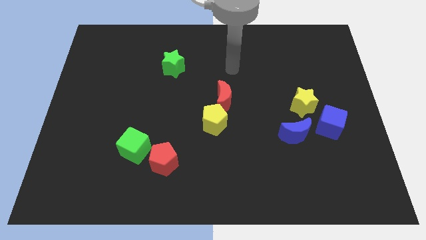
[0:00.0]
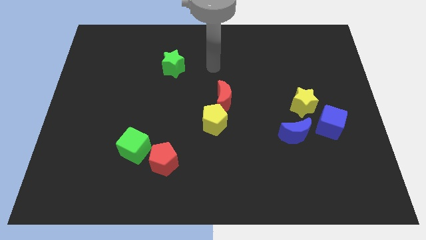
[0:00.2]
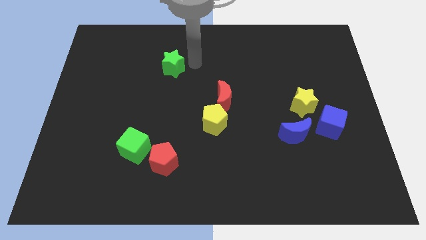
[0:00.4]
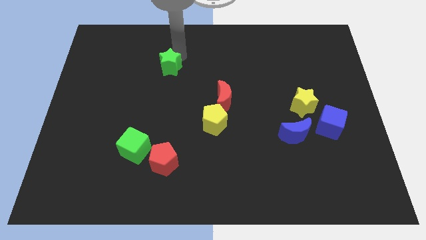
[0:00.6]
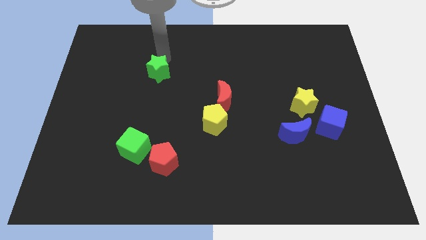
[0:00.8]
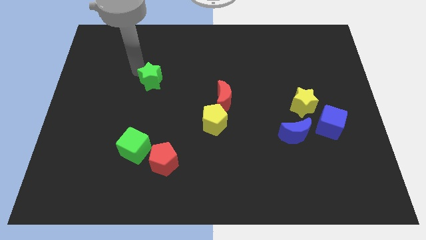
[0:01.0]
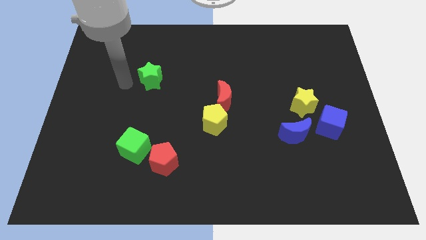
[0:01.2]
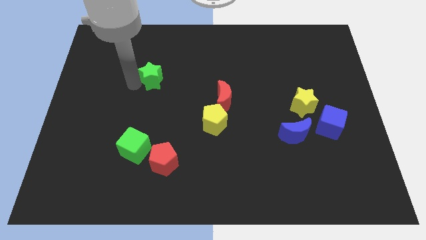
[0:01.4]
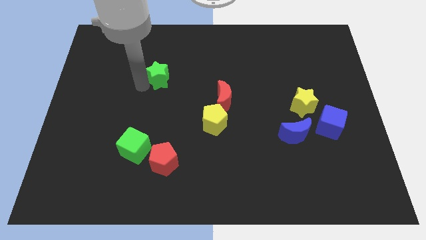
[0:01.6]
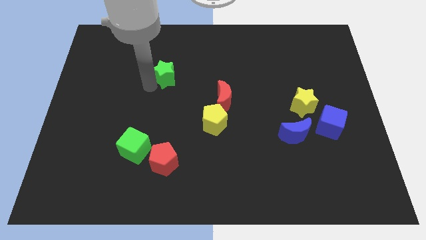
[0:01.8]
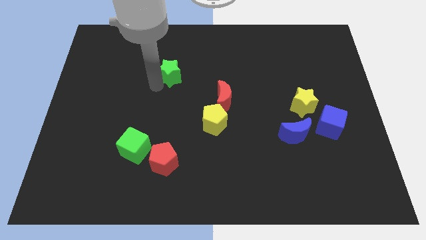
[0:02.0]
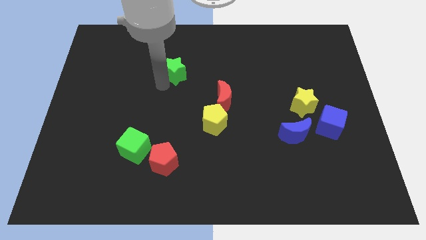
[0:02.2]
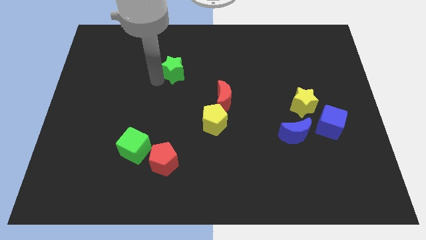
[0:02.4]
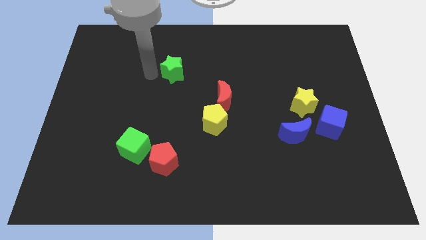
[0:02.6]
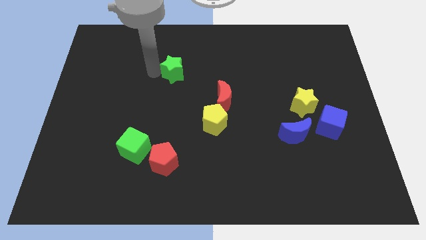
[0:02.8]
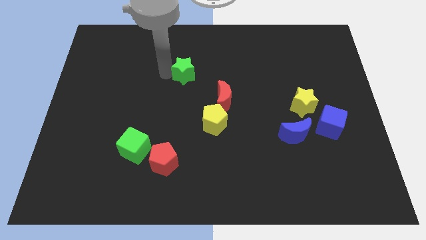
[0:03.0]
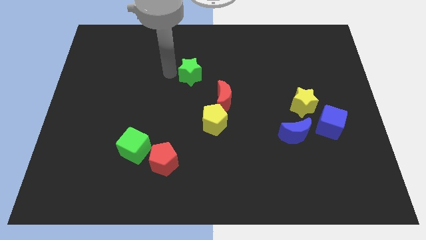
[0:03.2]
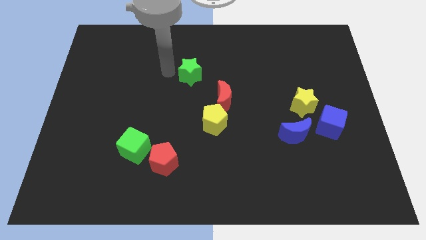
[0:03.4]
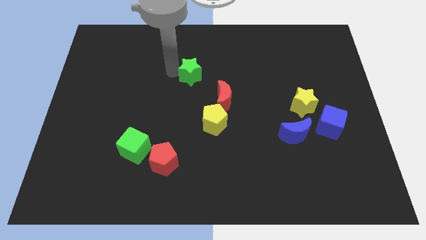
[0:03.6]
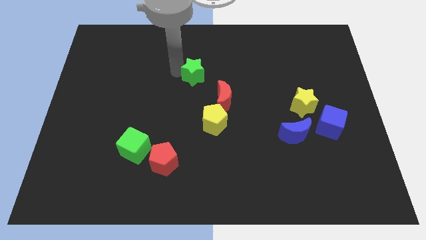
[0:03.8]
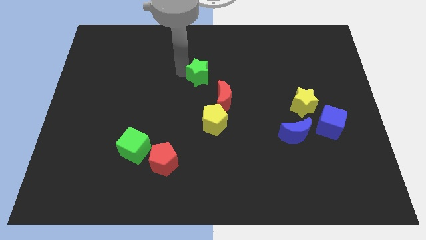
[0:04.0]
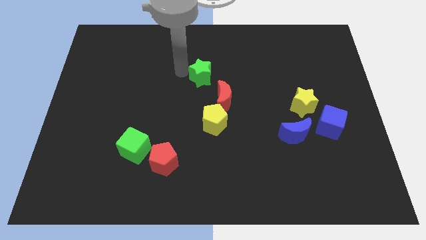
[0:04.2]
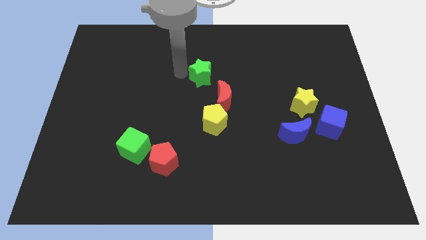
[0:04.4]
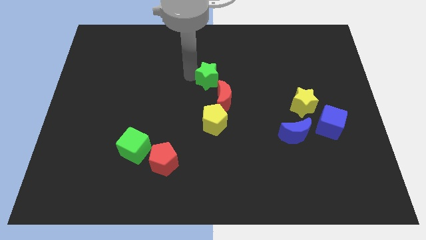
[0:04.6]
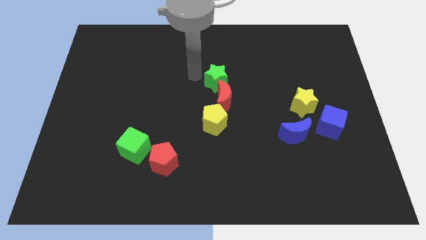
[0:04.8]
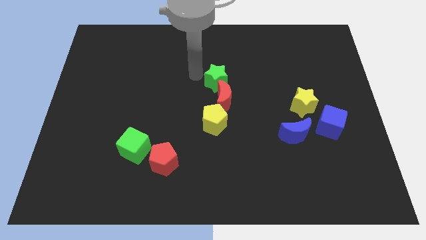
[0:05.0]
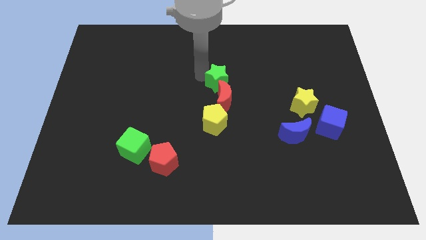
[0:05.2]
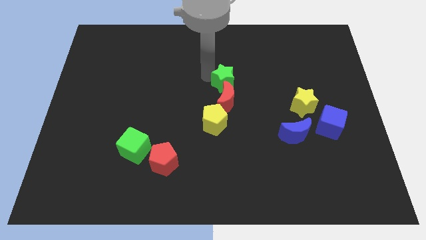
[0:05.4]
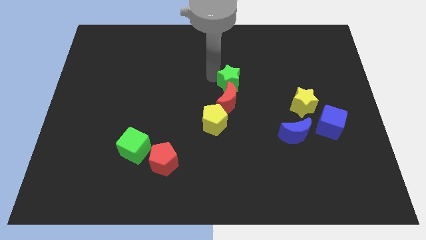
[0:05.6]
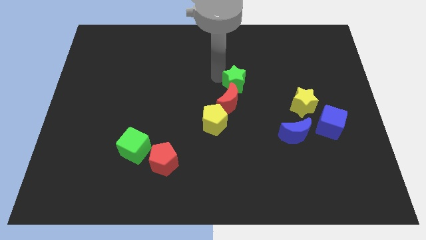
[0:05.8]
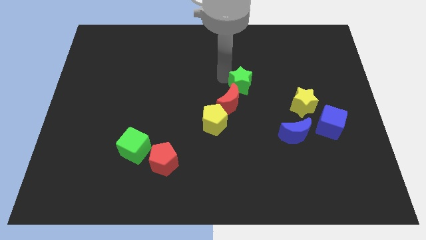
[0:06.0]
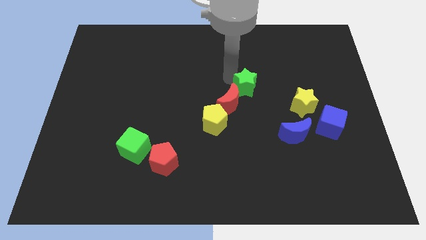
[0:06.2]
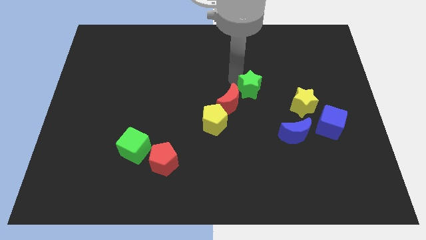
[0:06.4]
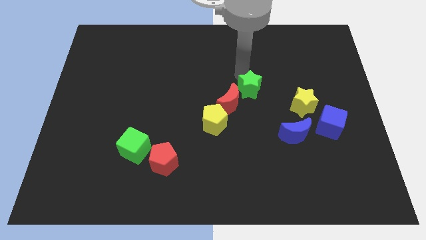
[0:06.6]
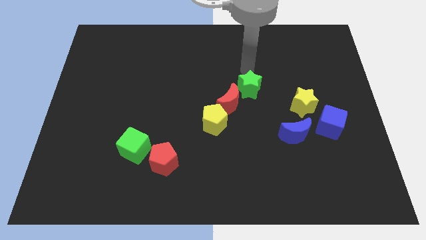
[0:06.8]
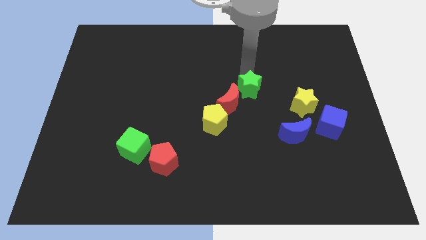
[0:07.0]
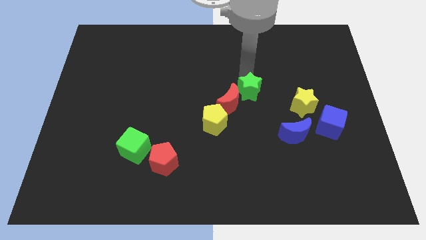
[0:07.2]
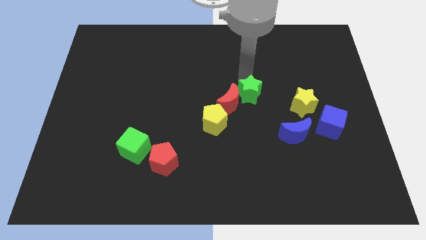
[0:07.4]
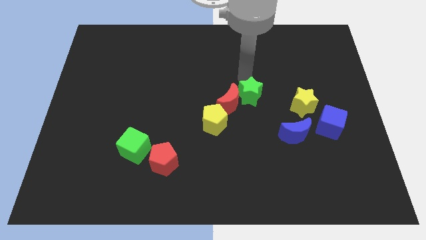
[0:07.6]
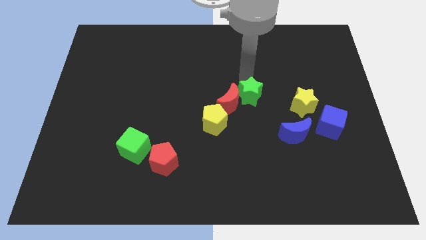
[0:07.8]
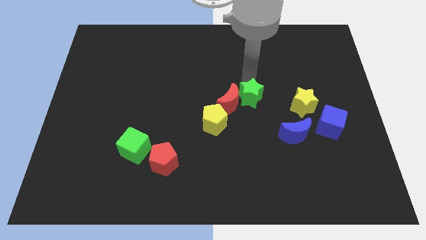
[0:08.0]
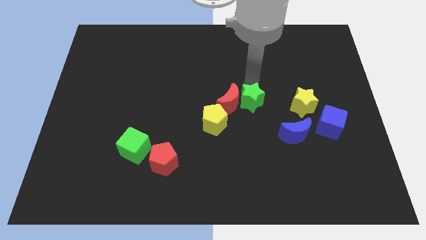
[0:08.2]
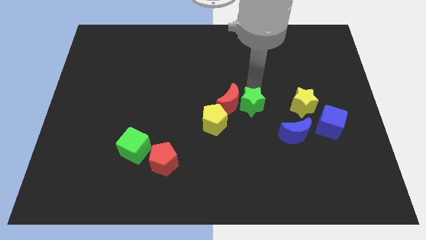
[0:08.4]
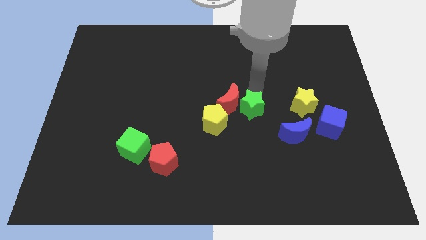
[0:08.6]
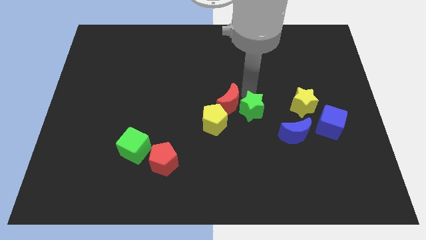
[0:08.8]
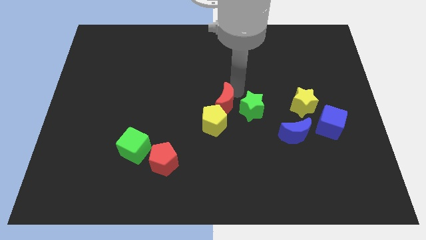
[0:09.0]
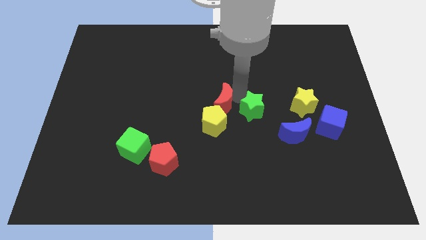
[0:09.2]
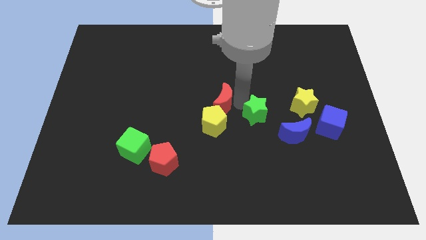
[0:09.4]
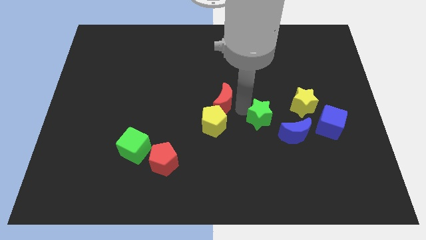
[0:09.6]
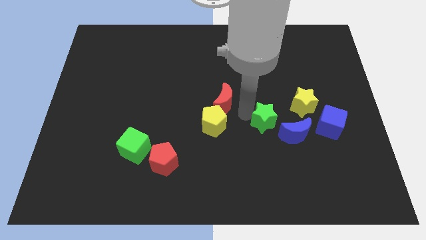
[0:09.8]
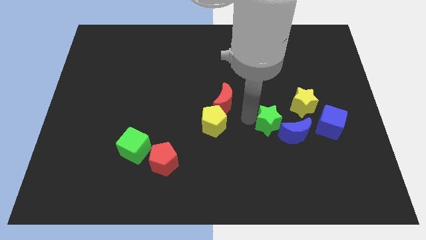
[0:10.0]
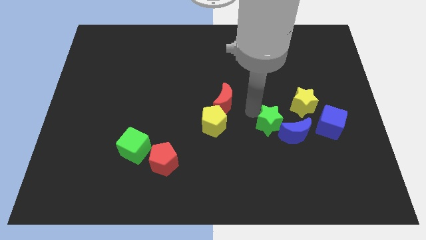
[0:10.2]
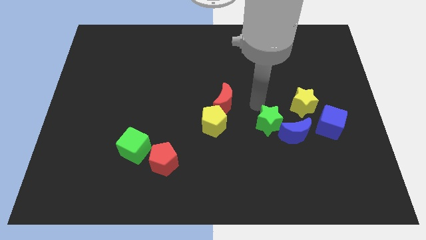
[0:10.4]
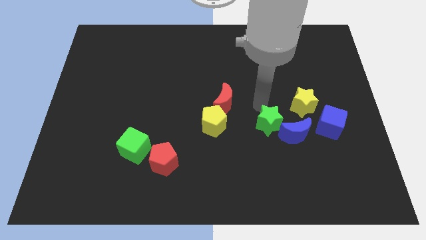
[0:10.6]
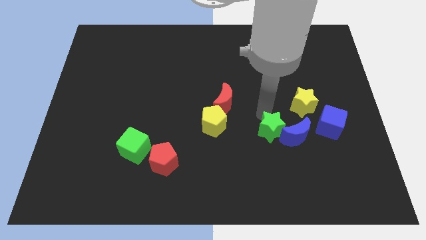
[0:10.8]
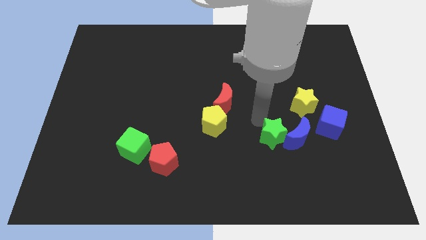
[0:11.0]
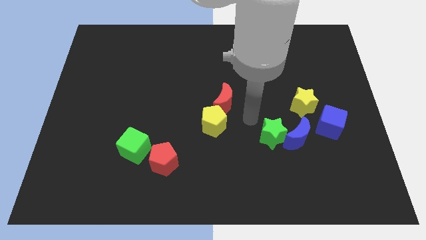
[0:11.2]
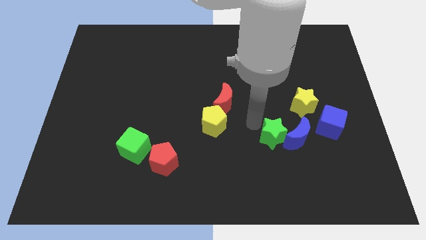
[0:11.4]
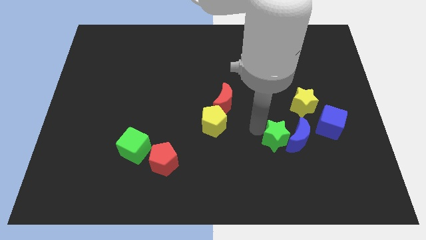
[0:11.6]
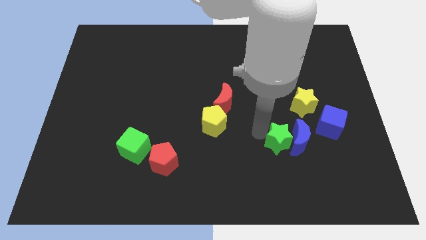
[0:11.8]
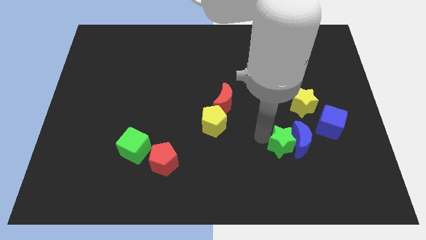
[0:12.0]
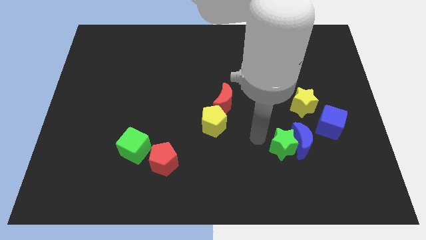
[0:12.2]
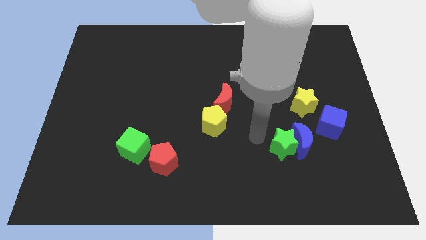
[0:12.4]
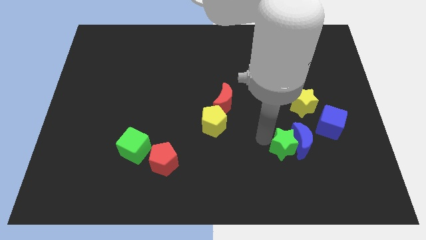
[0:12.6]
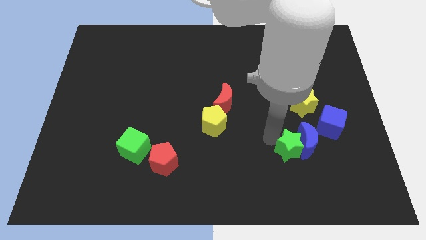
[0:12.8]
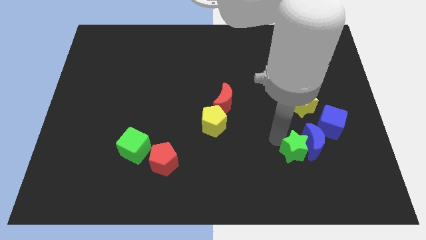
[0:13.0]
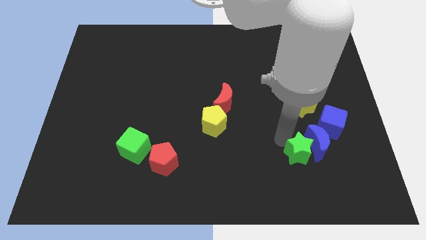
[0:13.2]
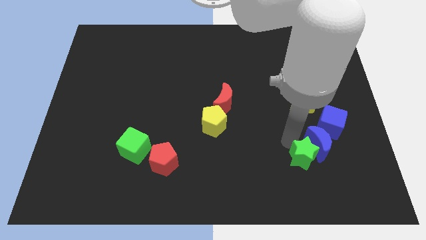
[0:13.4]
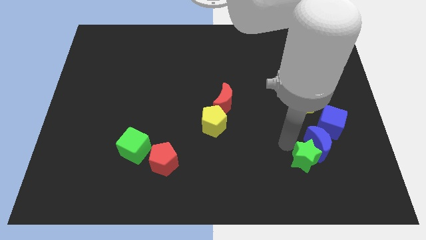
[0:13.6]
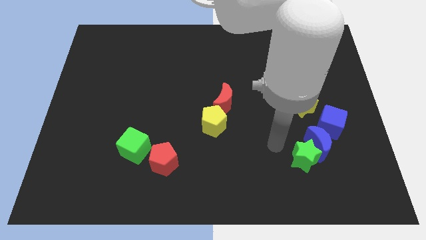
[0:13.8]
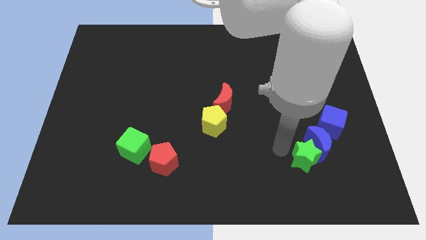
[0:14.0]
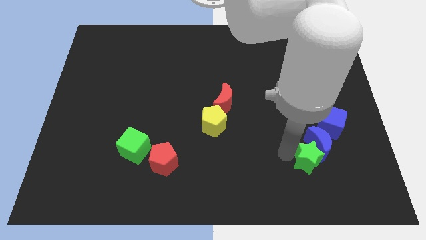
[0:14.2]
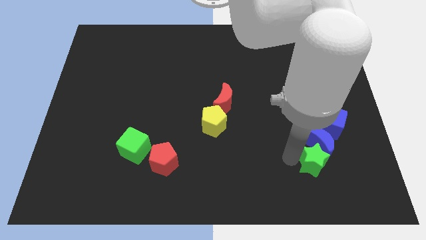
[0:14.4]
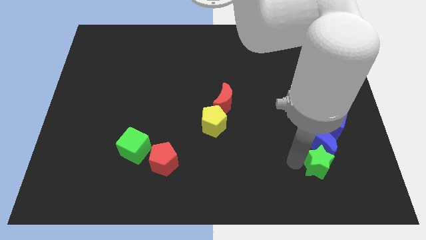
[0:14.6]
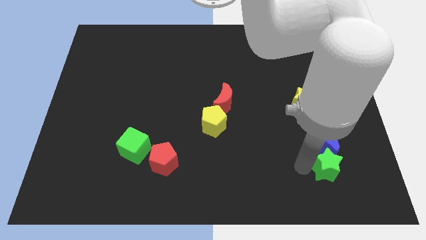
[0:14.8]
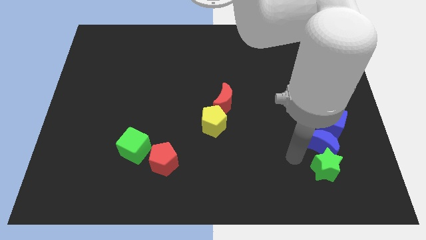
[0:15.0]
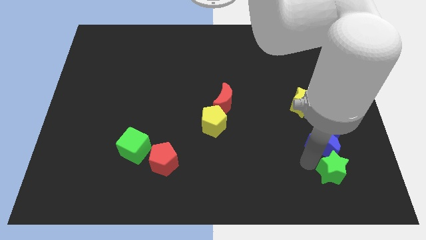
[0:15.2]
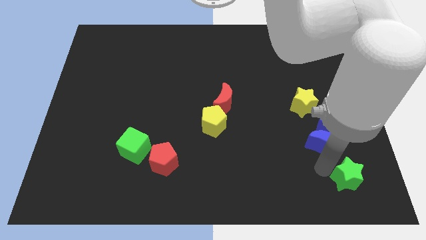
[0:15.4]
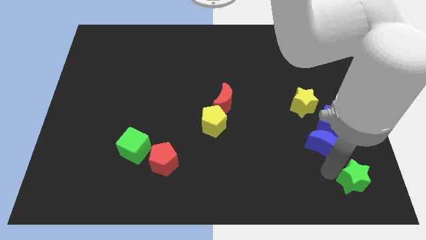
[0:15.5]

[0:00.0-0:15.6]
put the green star to the lower right corner
